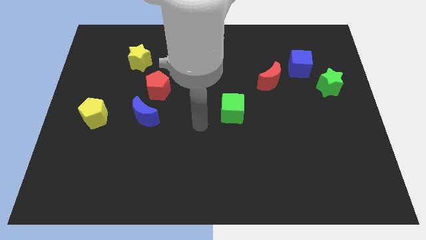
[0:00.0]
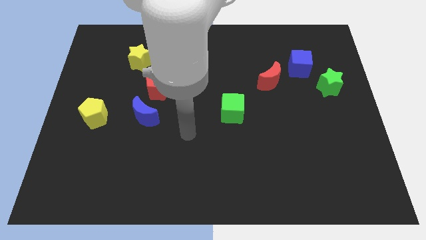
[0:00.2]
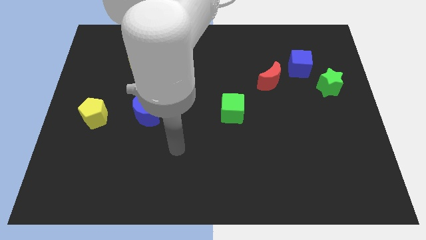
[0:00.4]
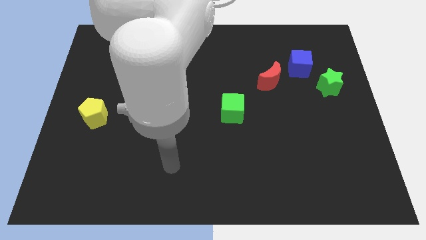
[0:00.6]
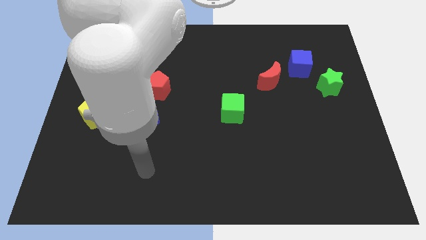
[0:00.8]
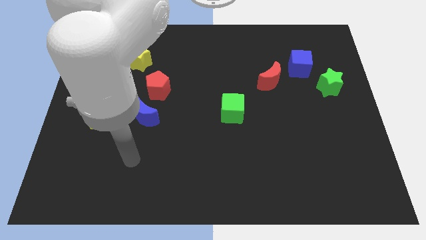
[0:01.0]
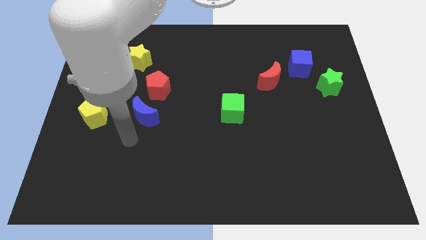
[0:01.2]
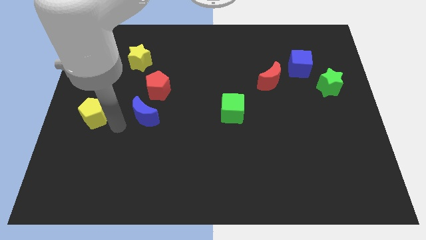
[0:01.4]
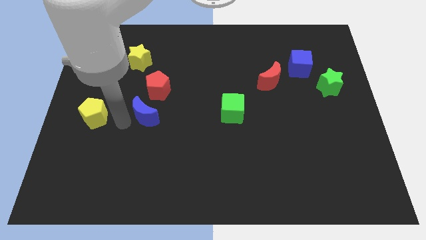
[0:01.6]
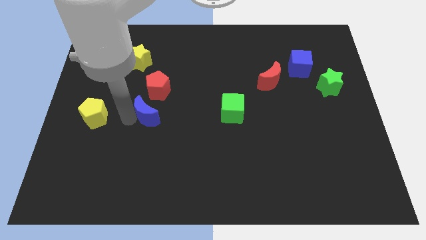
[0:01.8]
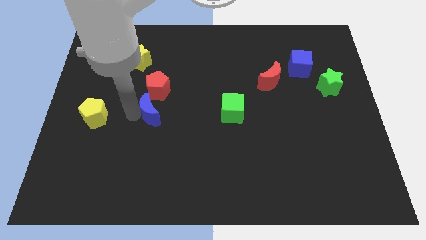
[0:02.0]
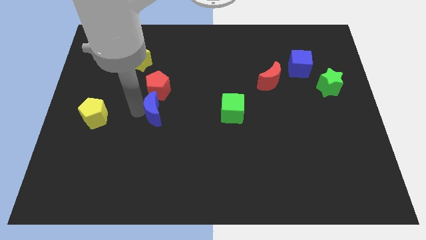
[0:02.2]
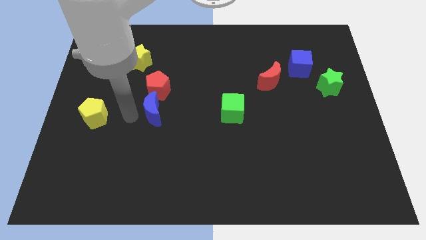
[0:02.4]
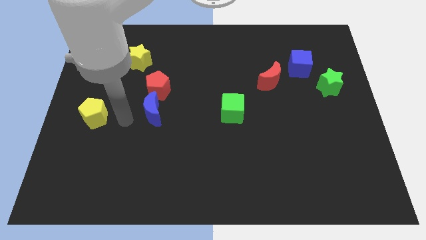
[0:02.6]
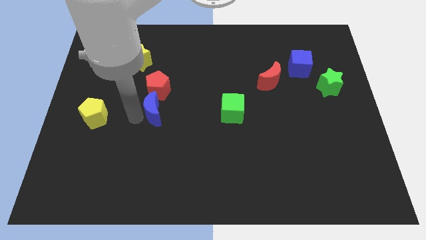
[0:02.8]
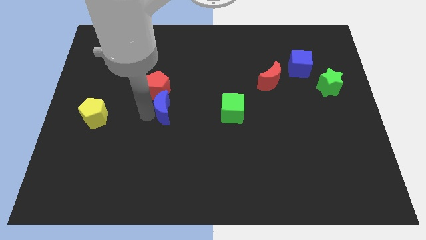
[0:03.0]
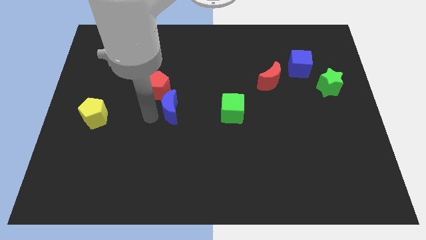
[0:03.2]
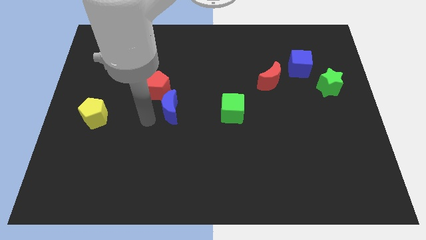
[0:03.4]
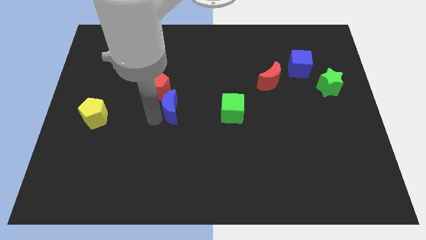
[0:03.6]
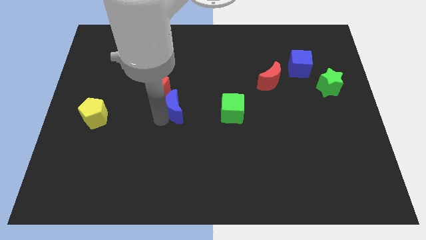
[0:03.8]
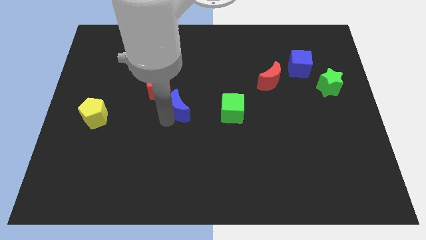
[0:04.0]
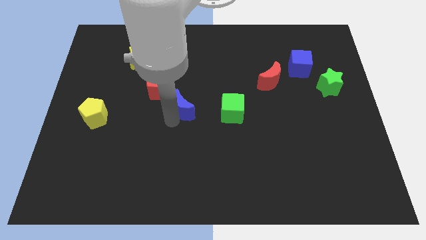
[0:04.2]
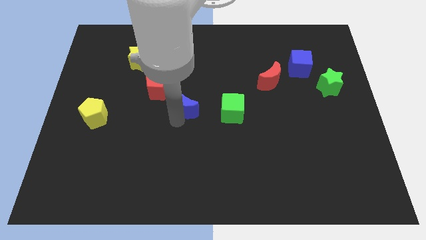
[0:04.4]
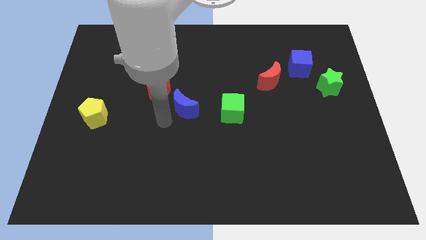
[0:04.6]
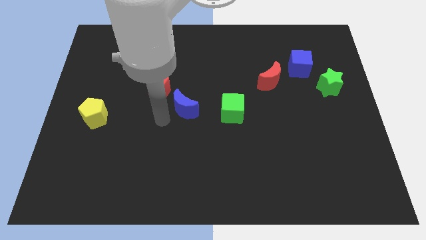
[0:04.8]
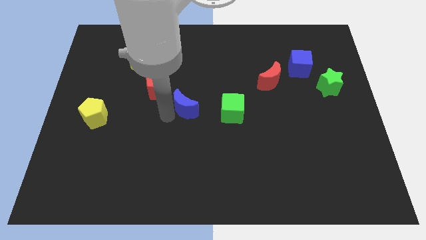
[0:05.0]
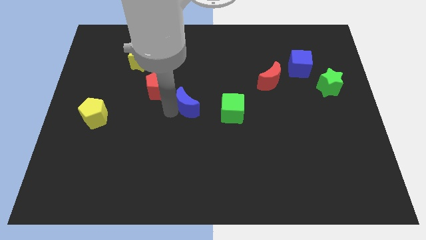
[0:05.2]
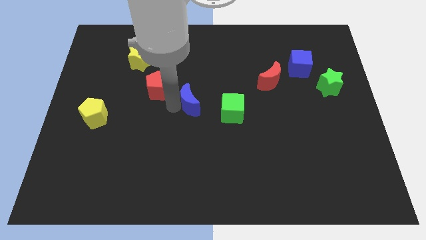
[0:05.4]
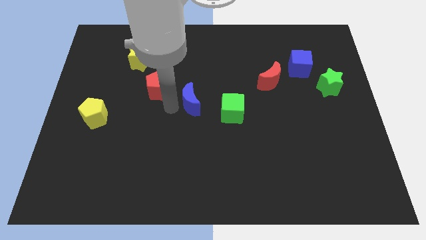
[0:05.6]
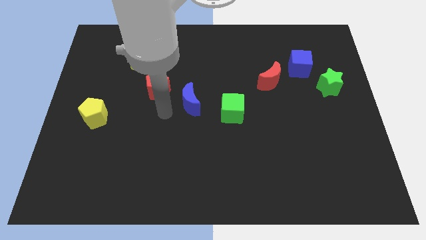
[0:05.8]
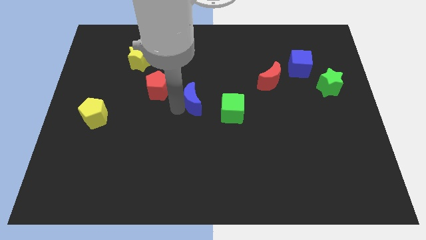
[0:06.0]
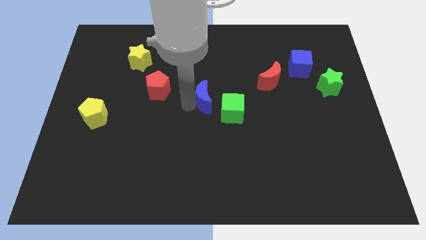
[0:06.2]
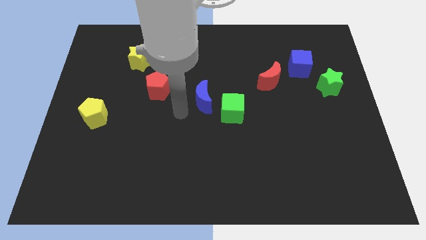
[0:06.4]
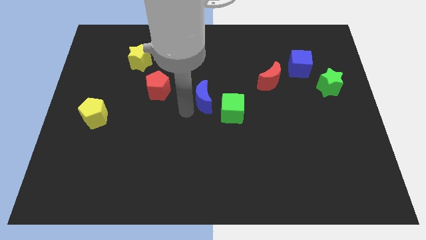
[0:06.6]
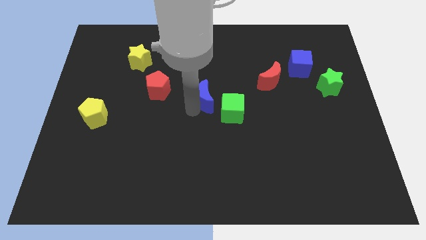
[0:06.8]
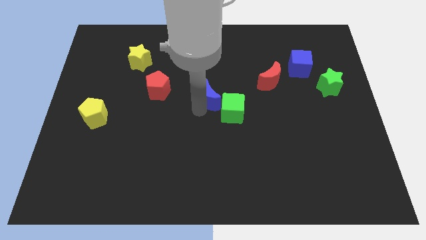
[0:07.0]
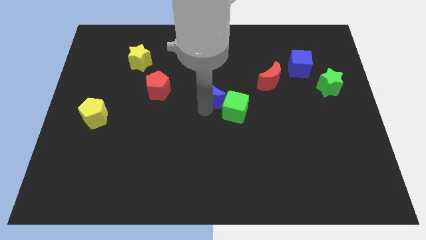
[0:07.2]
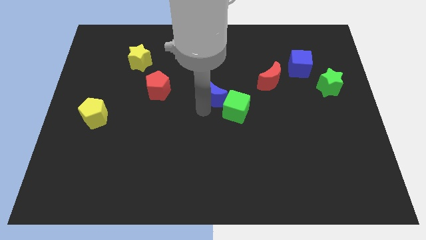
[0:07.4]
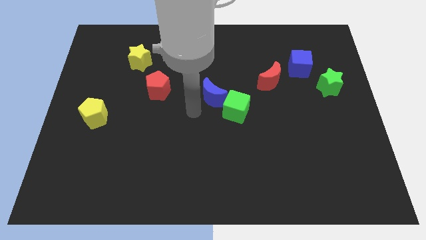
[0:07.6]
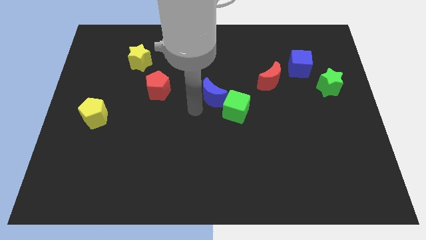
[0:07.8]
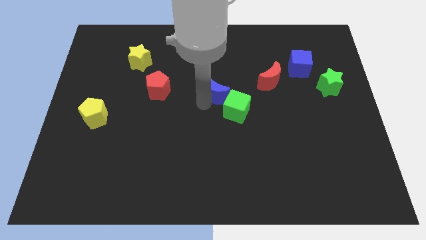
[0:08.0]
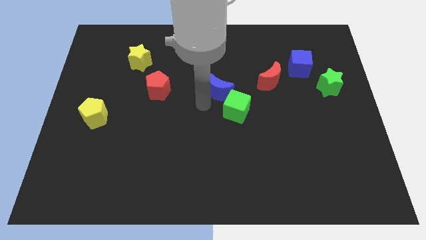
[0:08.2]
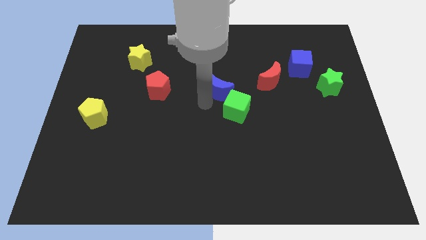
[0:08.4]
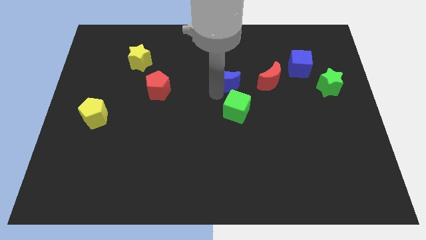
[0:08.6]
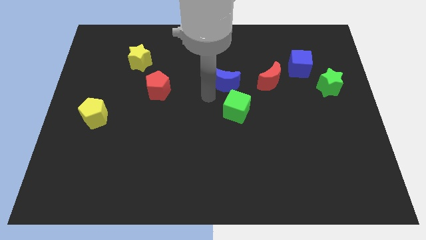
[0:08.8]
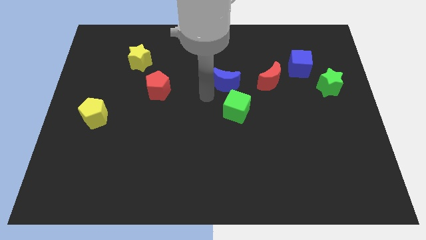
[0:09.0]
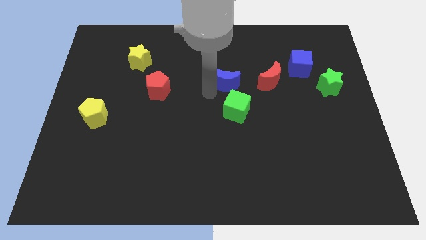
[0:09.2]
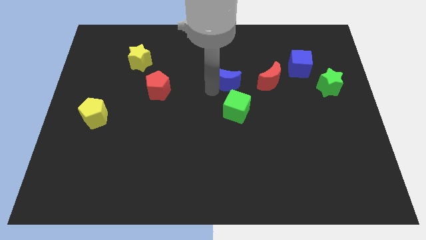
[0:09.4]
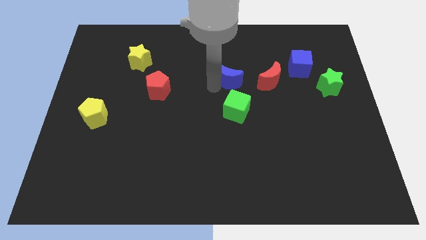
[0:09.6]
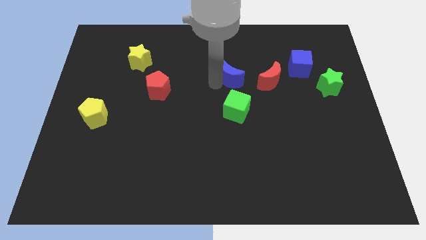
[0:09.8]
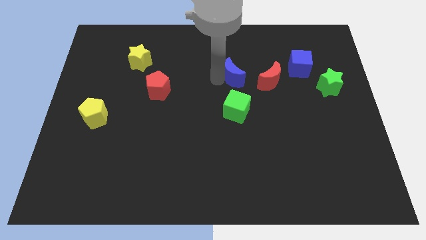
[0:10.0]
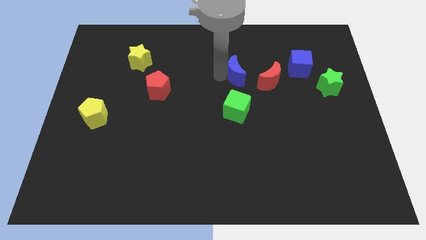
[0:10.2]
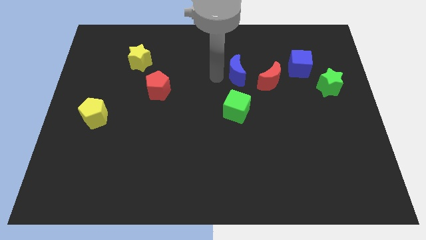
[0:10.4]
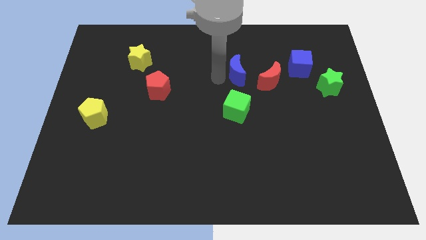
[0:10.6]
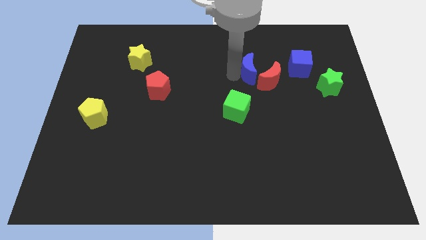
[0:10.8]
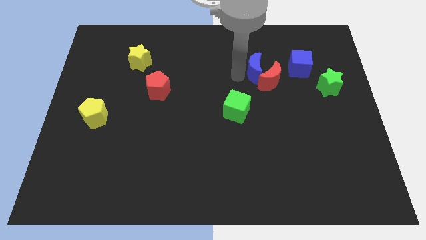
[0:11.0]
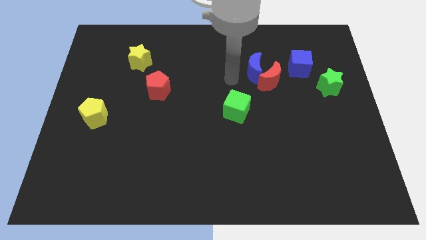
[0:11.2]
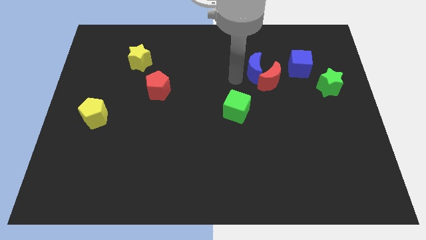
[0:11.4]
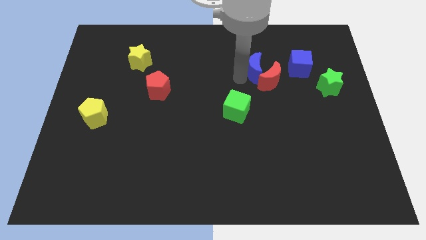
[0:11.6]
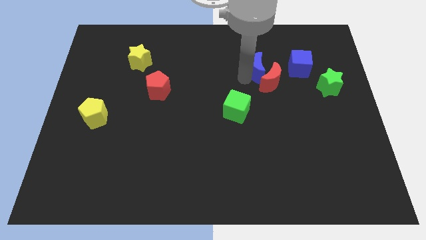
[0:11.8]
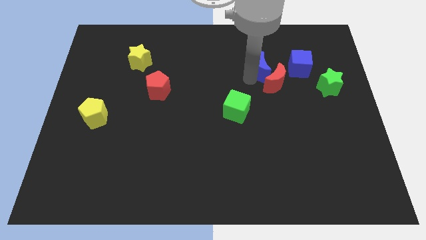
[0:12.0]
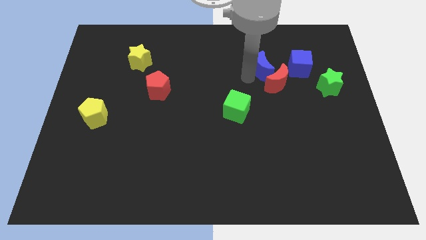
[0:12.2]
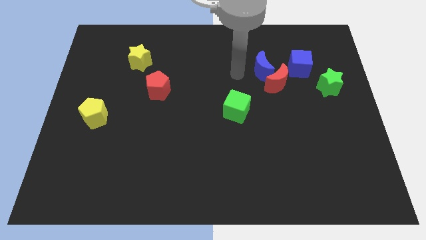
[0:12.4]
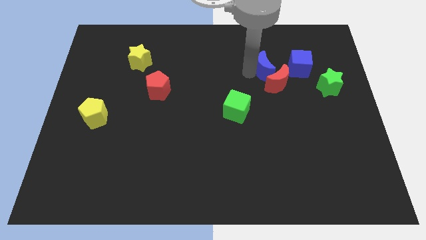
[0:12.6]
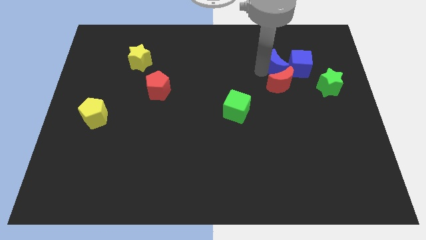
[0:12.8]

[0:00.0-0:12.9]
put the blue moon towards the blue cube
